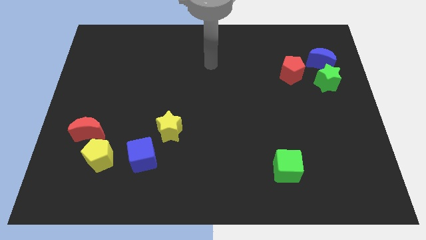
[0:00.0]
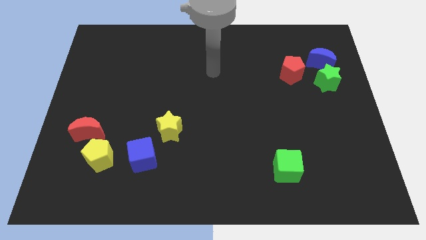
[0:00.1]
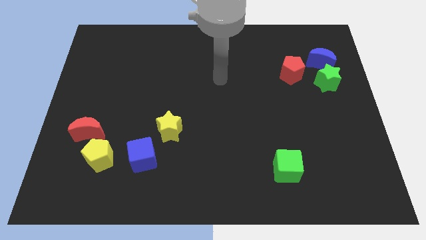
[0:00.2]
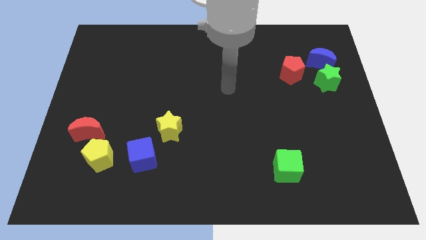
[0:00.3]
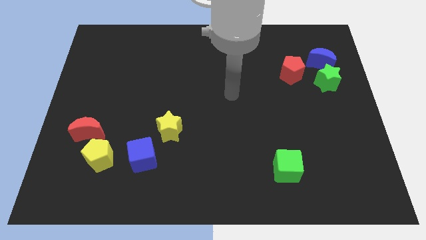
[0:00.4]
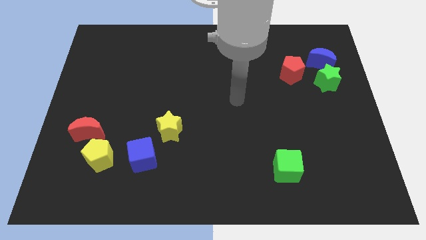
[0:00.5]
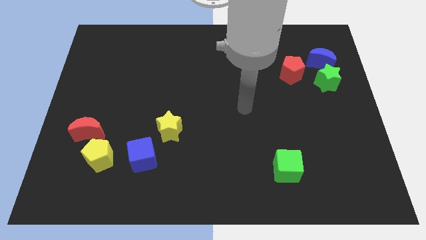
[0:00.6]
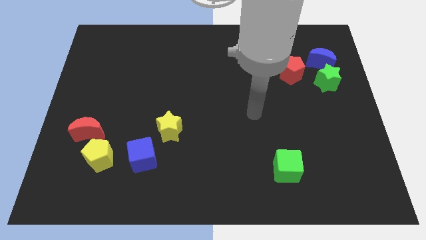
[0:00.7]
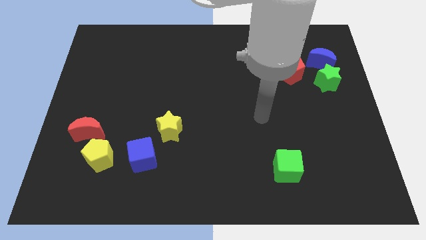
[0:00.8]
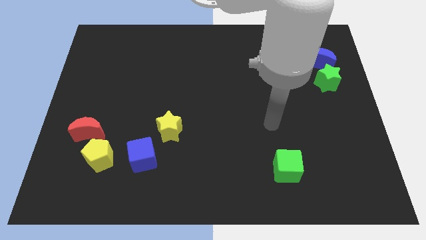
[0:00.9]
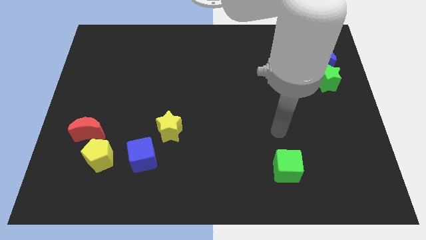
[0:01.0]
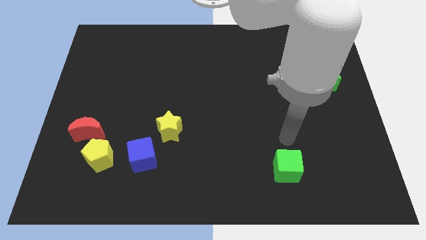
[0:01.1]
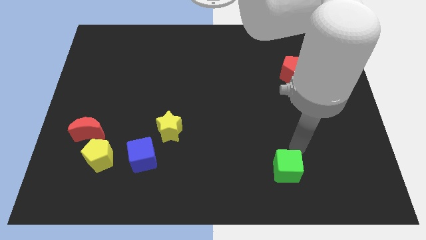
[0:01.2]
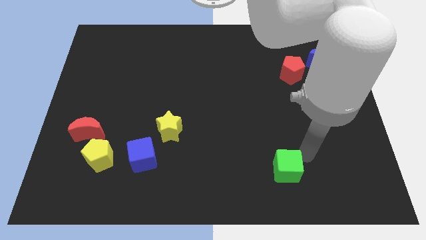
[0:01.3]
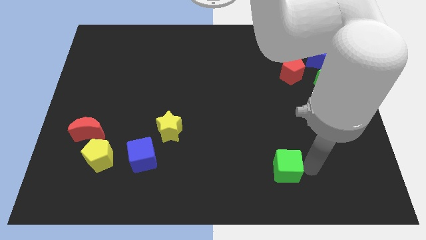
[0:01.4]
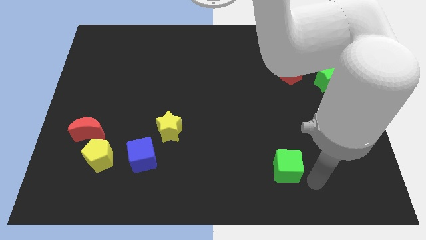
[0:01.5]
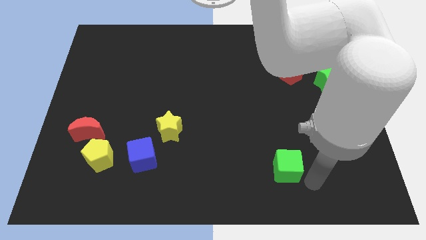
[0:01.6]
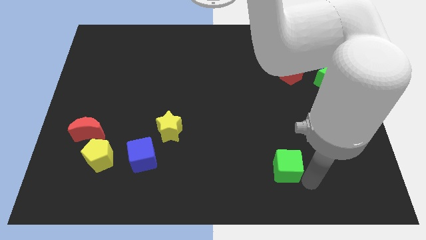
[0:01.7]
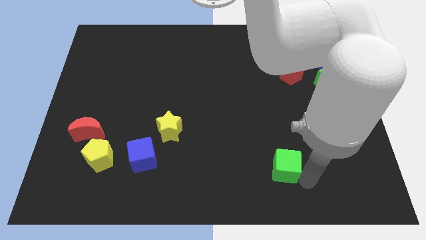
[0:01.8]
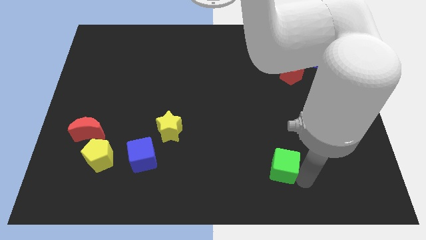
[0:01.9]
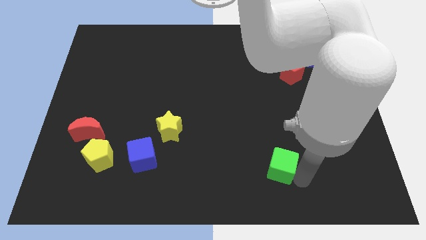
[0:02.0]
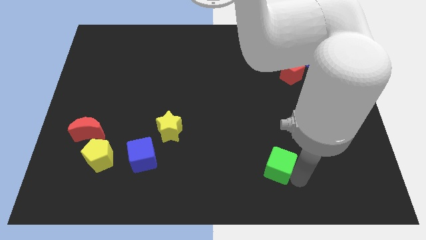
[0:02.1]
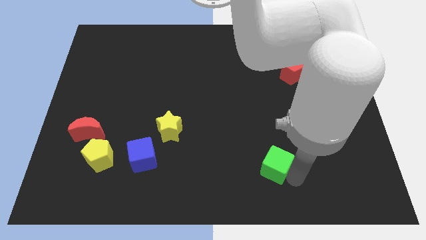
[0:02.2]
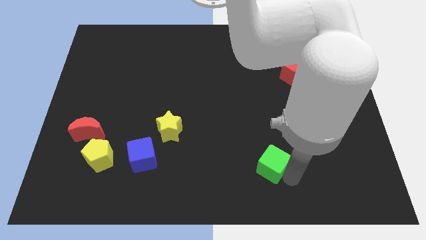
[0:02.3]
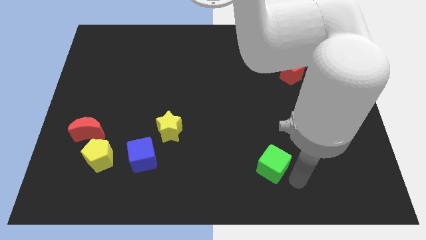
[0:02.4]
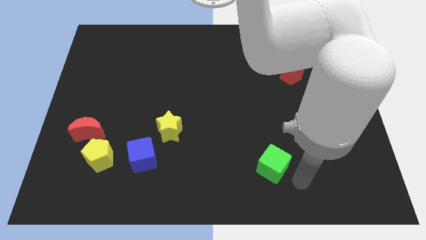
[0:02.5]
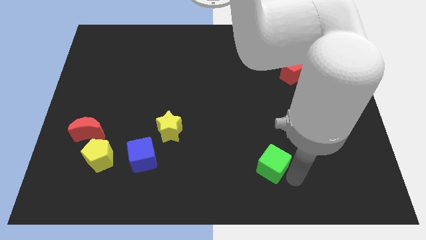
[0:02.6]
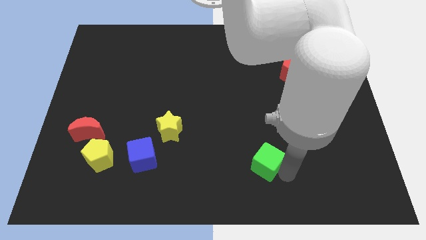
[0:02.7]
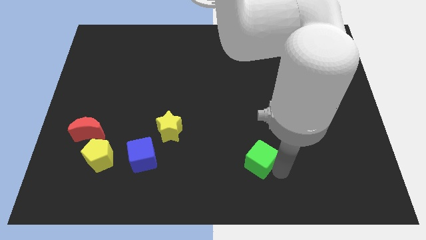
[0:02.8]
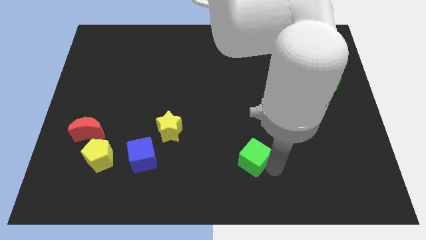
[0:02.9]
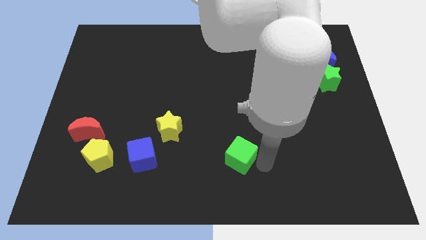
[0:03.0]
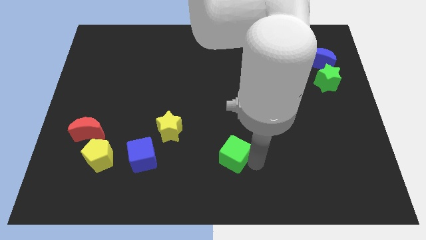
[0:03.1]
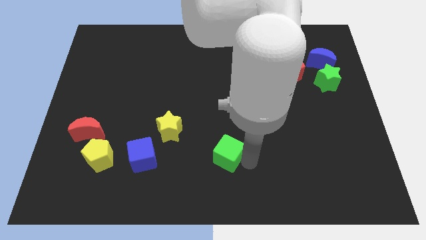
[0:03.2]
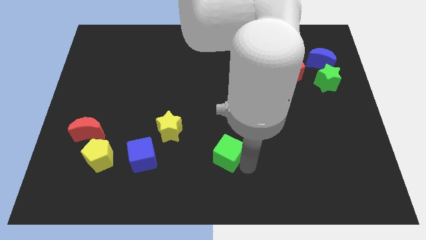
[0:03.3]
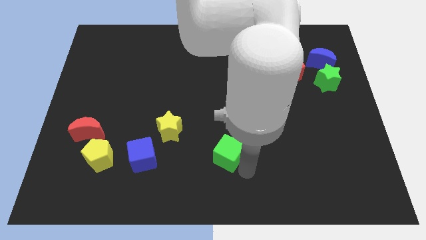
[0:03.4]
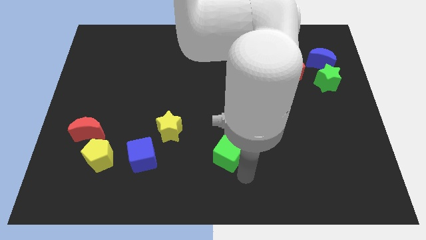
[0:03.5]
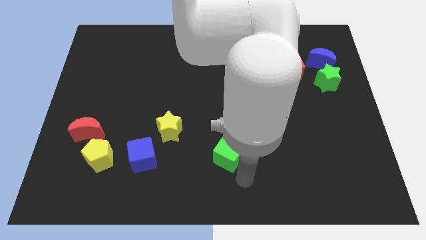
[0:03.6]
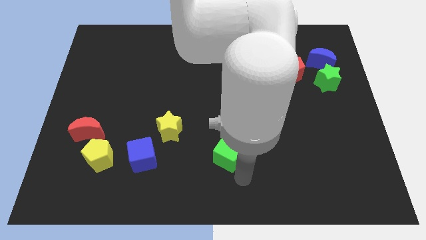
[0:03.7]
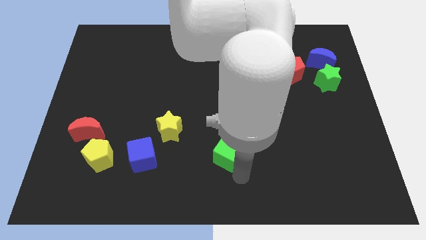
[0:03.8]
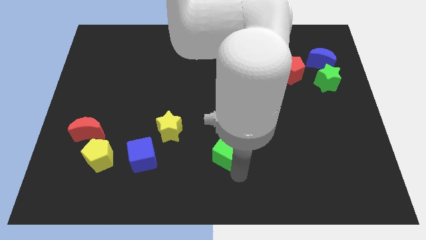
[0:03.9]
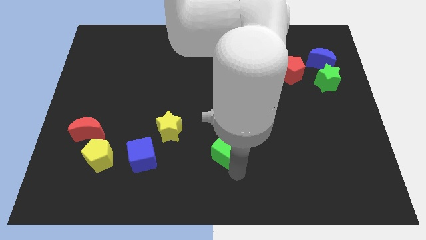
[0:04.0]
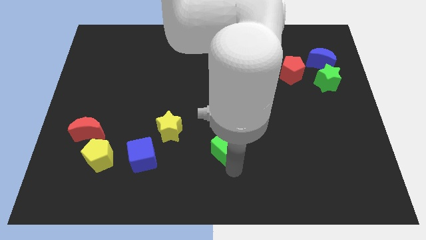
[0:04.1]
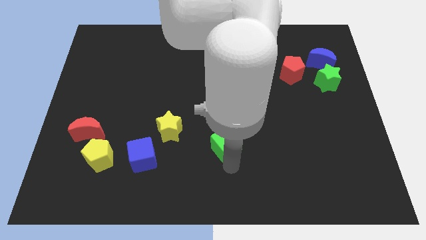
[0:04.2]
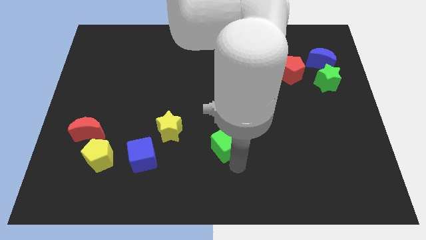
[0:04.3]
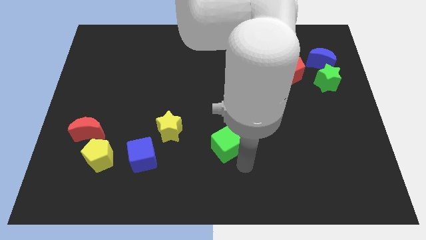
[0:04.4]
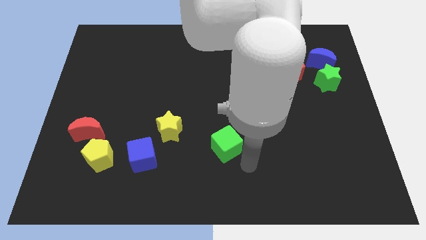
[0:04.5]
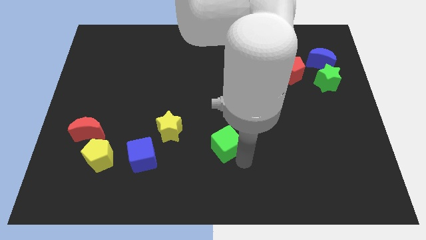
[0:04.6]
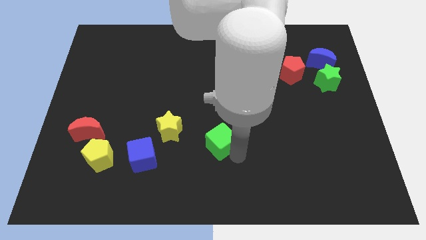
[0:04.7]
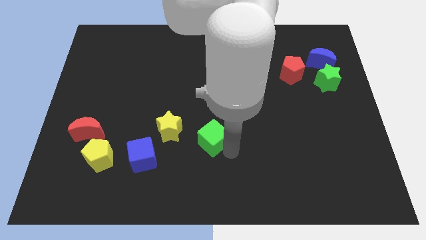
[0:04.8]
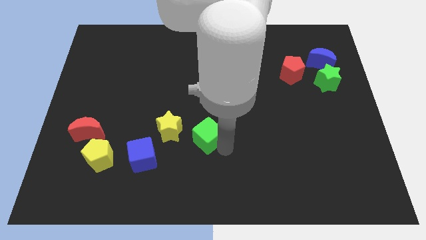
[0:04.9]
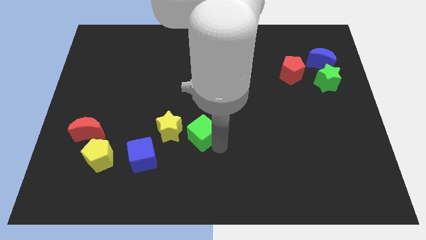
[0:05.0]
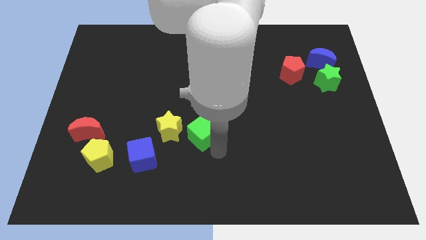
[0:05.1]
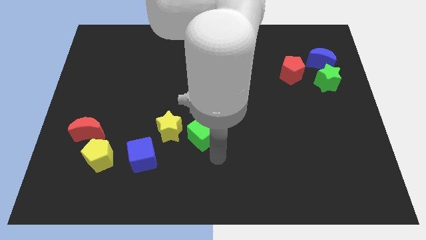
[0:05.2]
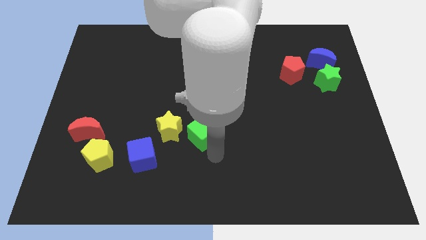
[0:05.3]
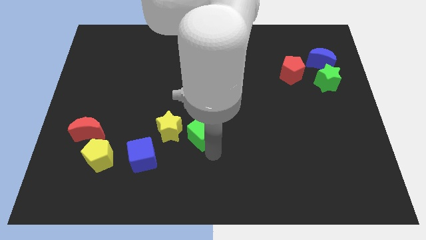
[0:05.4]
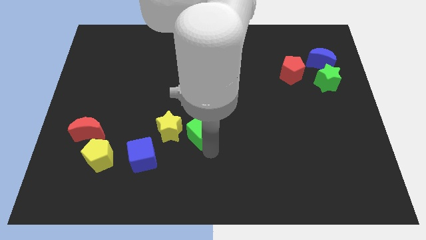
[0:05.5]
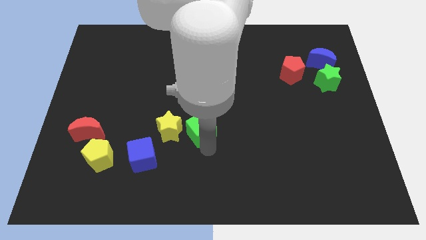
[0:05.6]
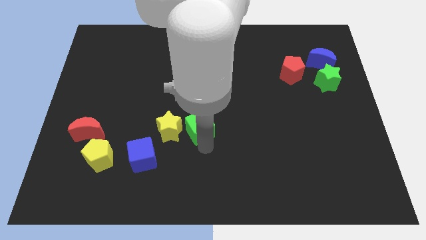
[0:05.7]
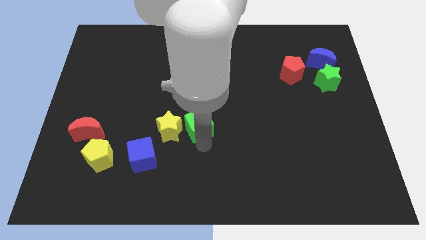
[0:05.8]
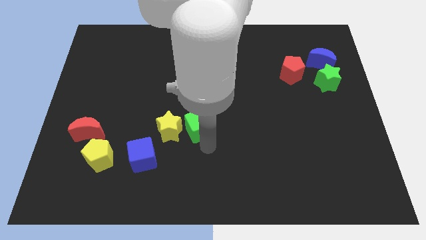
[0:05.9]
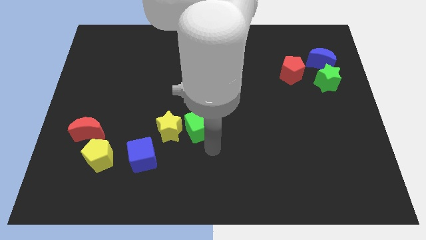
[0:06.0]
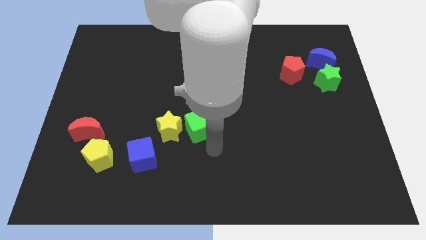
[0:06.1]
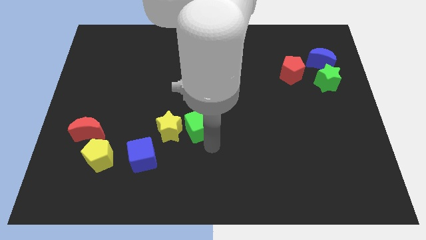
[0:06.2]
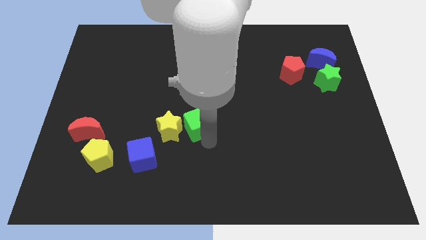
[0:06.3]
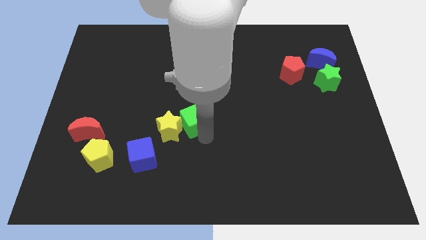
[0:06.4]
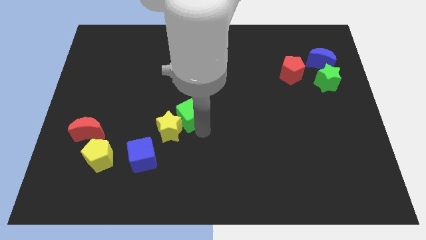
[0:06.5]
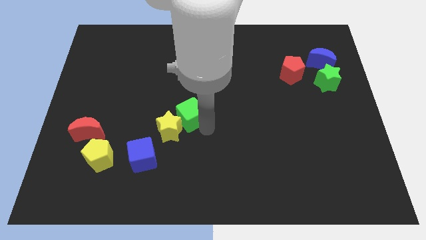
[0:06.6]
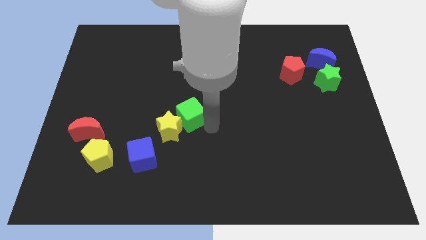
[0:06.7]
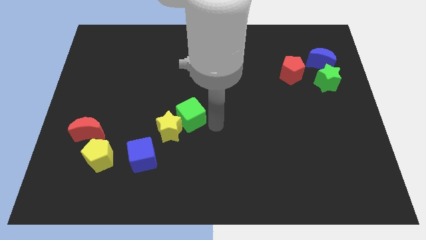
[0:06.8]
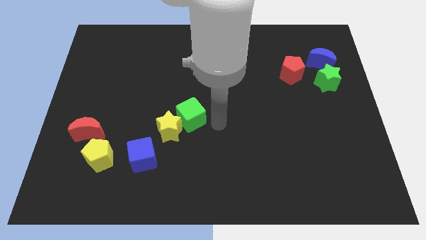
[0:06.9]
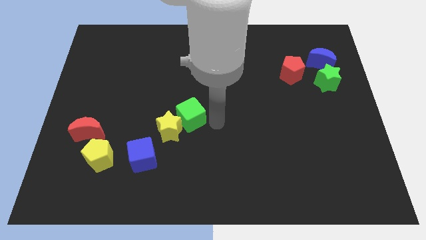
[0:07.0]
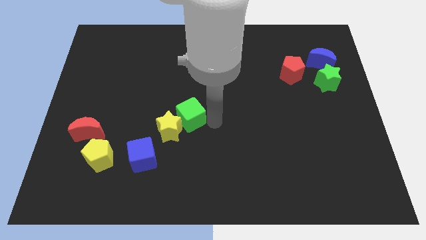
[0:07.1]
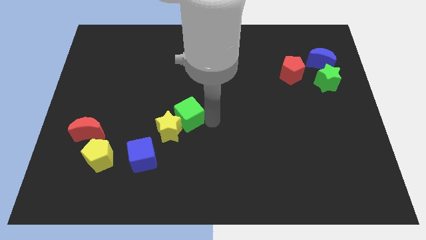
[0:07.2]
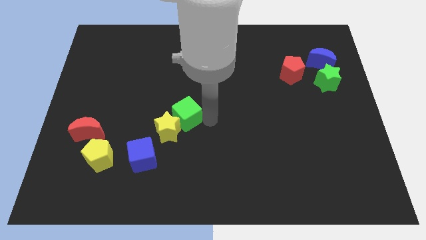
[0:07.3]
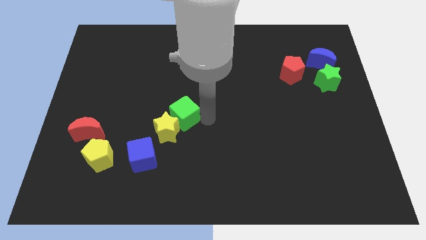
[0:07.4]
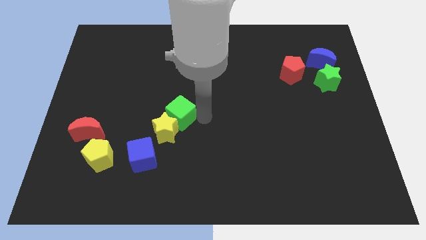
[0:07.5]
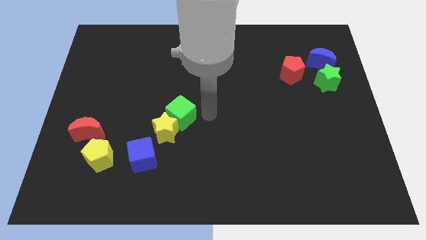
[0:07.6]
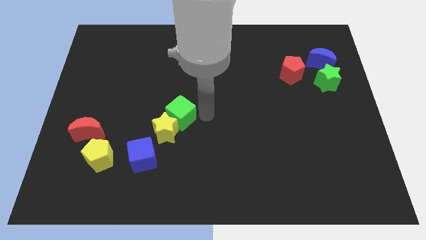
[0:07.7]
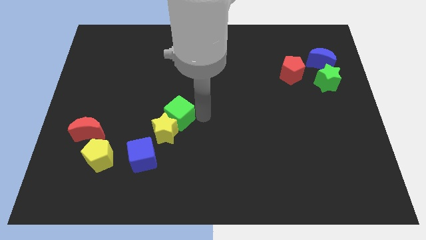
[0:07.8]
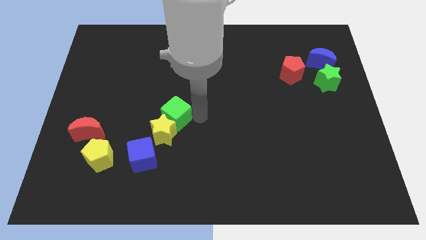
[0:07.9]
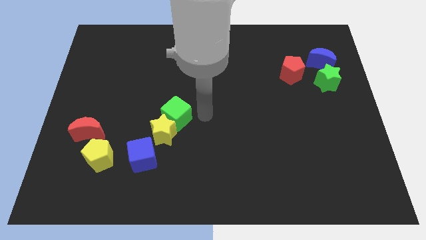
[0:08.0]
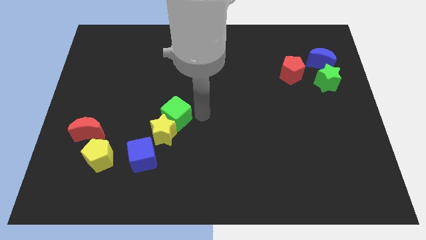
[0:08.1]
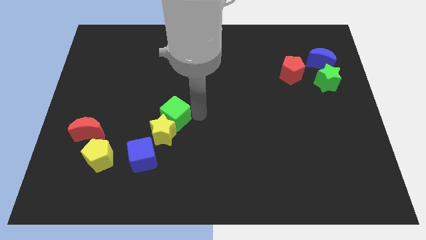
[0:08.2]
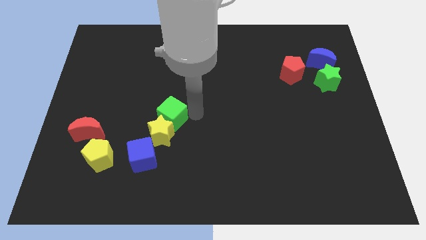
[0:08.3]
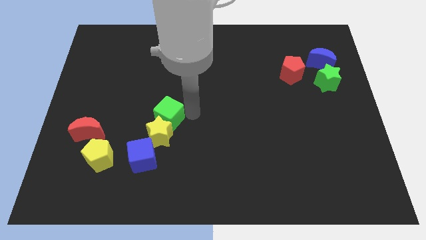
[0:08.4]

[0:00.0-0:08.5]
move the green cube above the blue cube
